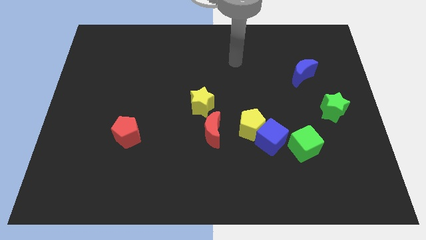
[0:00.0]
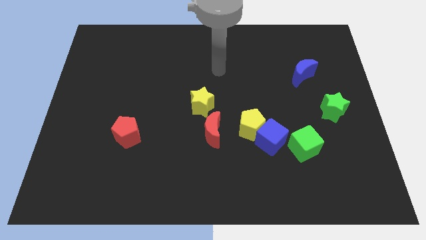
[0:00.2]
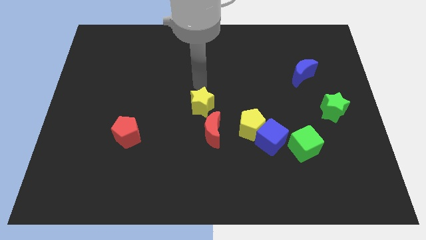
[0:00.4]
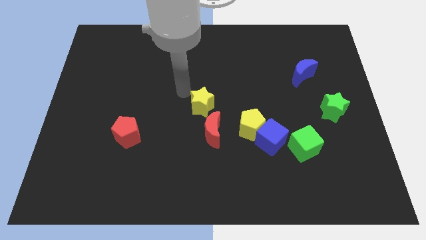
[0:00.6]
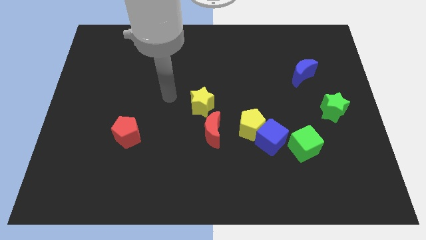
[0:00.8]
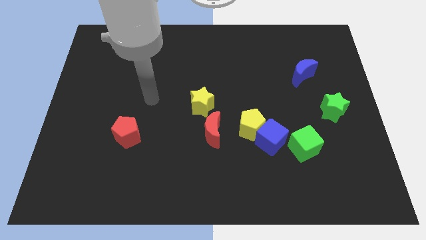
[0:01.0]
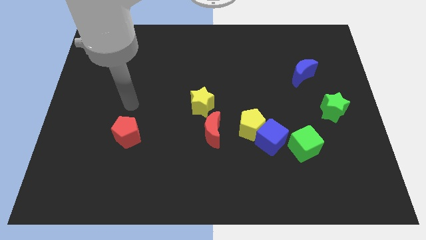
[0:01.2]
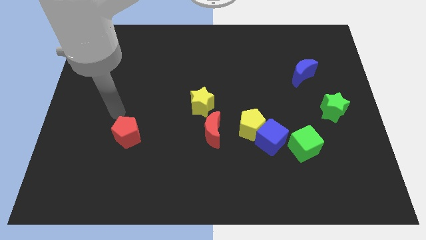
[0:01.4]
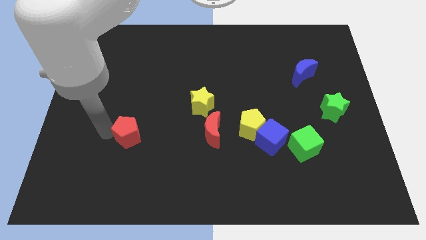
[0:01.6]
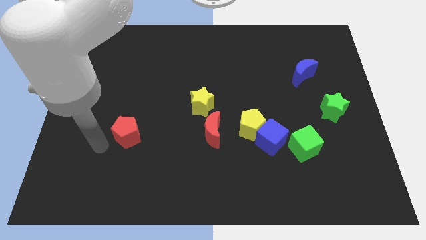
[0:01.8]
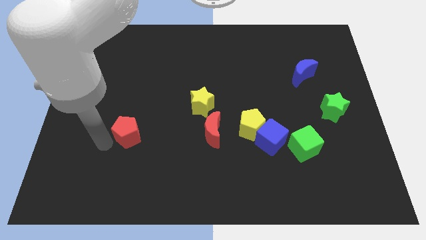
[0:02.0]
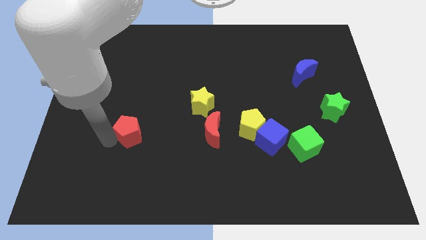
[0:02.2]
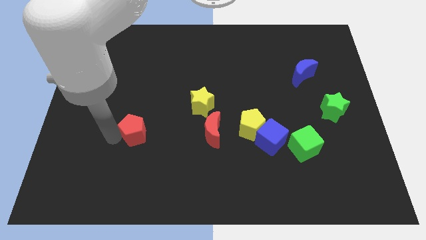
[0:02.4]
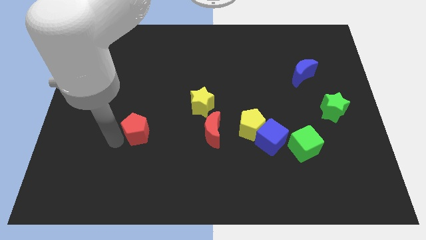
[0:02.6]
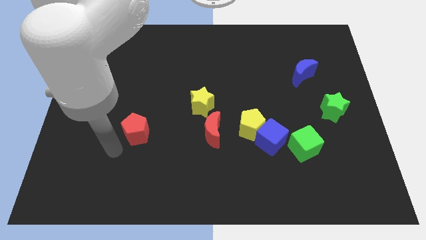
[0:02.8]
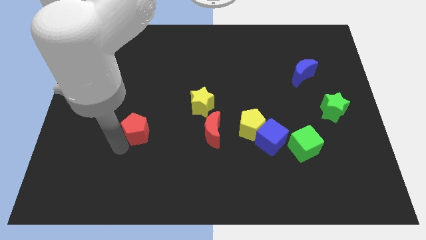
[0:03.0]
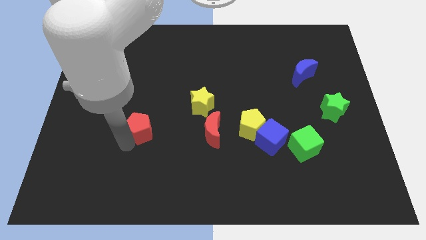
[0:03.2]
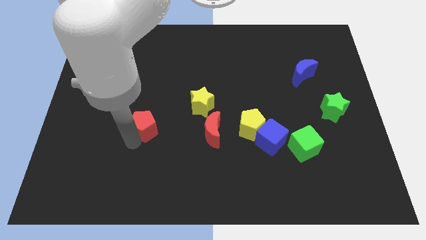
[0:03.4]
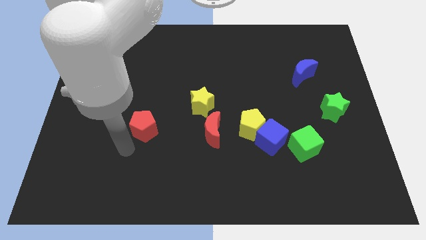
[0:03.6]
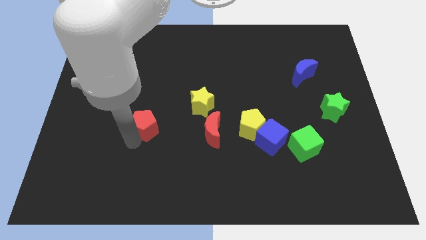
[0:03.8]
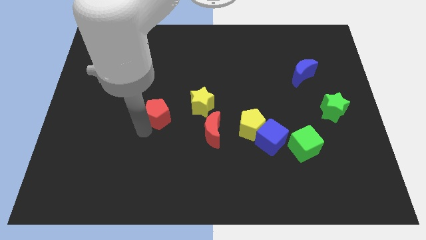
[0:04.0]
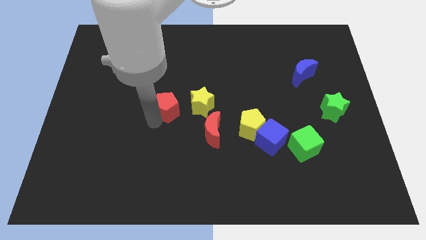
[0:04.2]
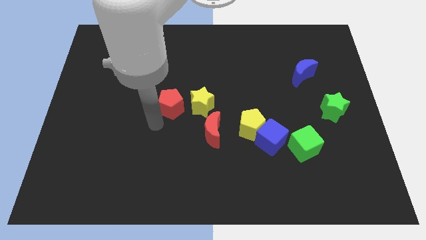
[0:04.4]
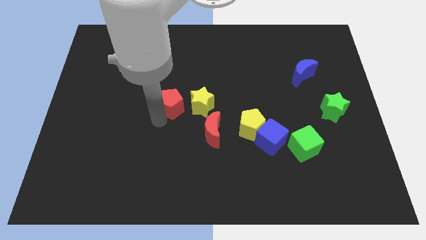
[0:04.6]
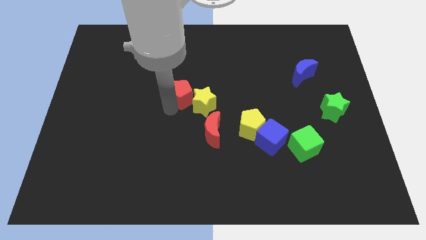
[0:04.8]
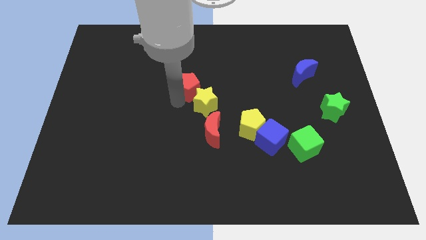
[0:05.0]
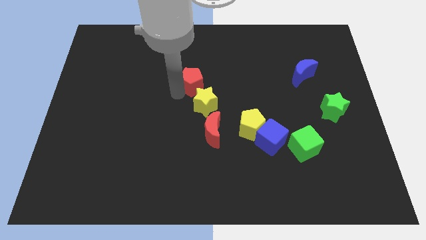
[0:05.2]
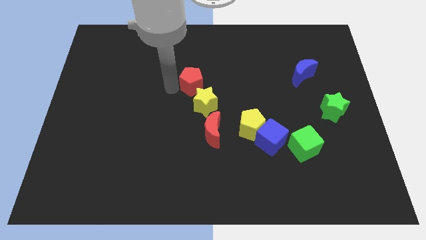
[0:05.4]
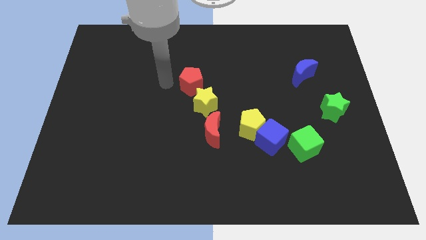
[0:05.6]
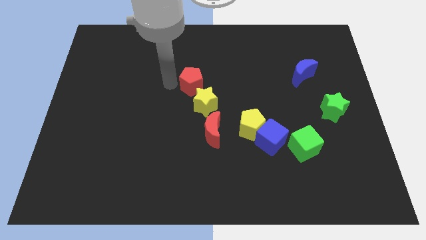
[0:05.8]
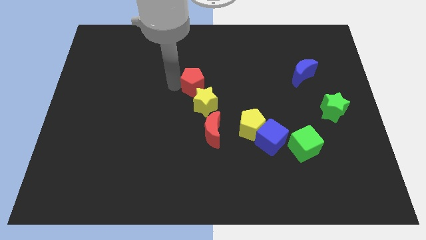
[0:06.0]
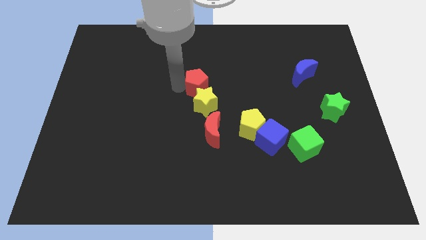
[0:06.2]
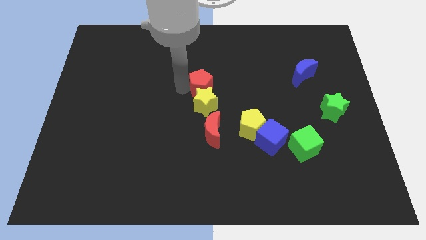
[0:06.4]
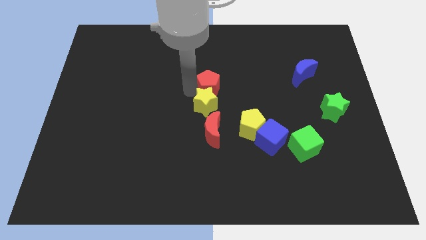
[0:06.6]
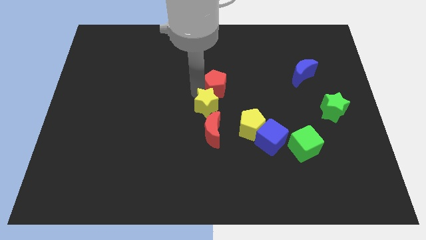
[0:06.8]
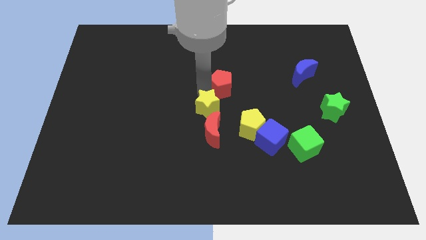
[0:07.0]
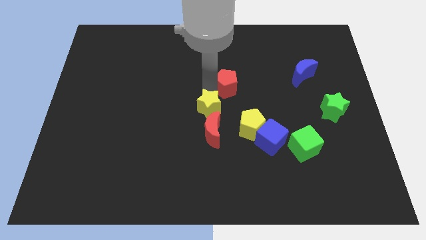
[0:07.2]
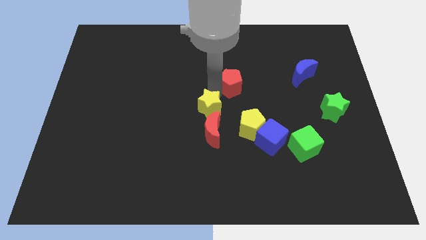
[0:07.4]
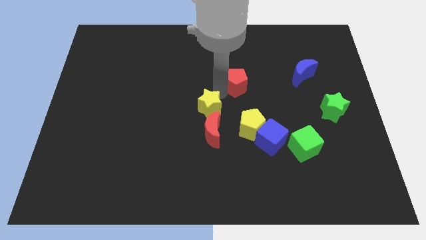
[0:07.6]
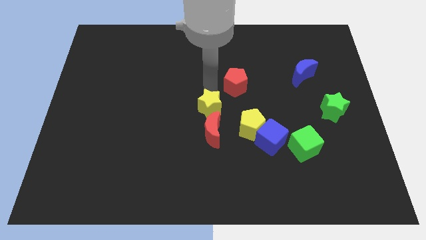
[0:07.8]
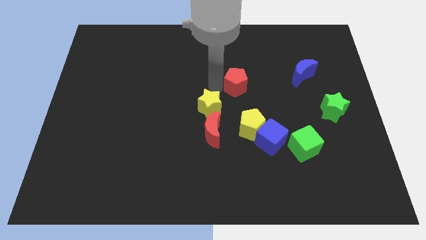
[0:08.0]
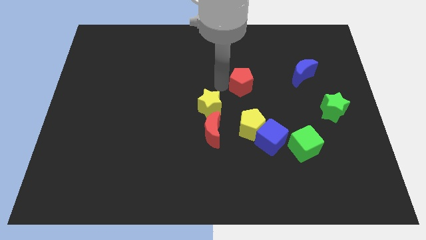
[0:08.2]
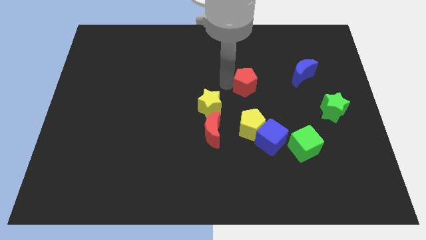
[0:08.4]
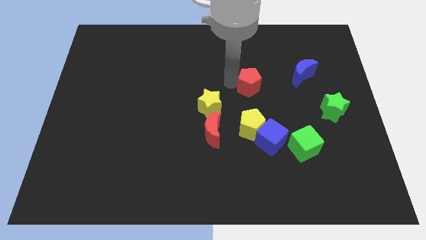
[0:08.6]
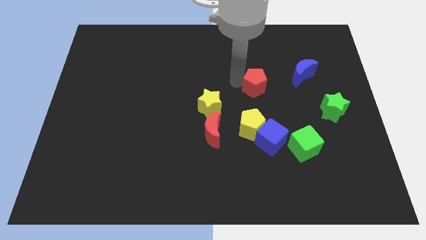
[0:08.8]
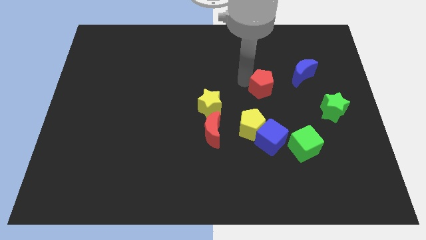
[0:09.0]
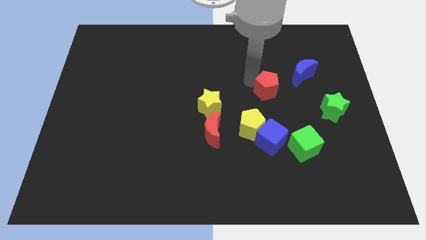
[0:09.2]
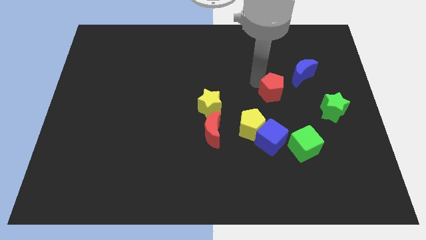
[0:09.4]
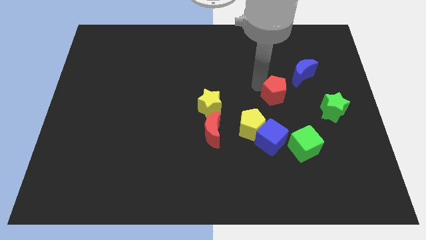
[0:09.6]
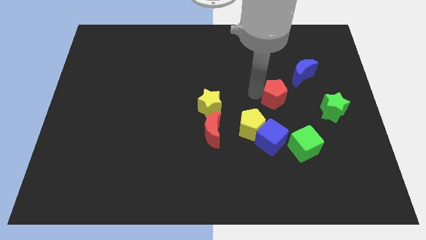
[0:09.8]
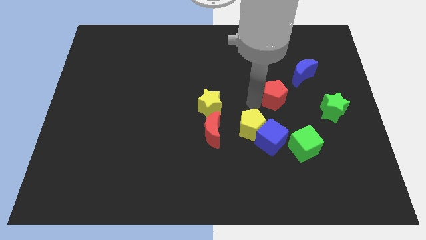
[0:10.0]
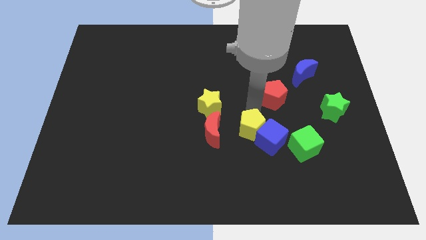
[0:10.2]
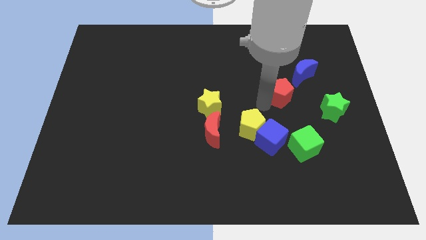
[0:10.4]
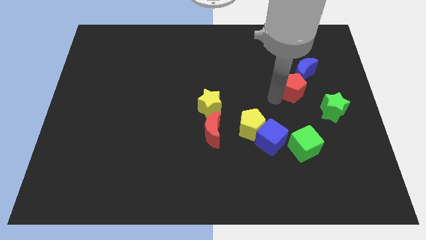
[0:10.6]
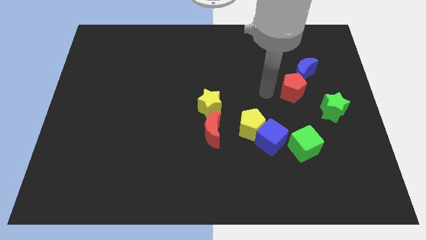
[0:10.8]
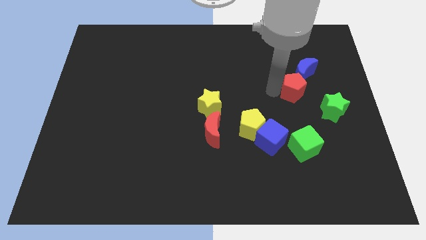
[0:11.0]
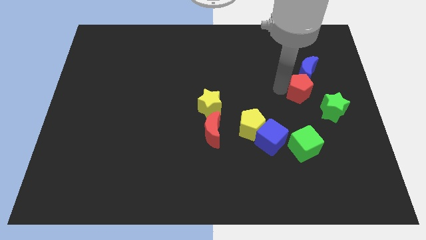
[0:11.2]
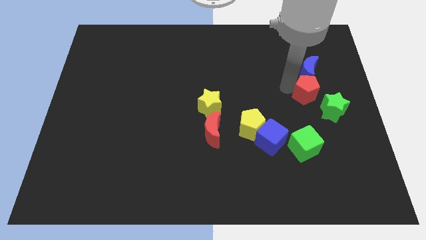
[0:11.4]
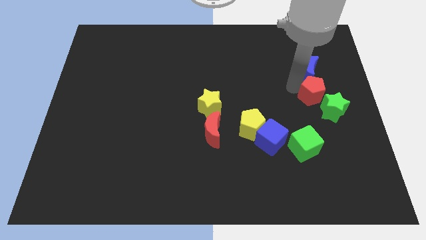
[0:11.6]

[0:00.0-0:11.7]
slide the red pentagon diagonally down and to the right of the blue moon
